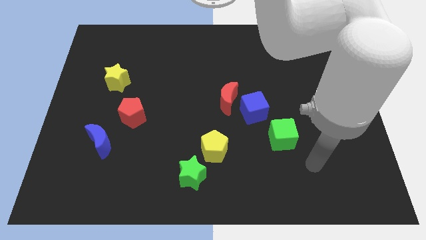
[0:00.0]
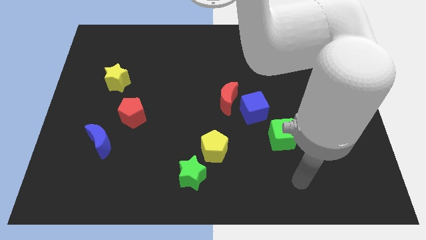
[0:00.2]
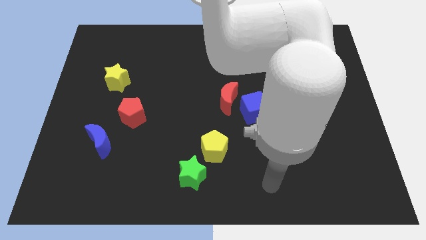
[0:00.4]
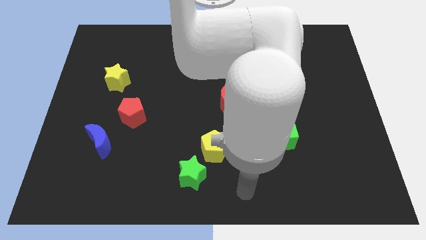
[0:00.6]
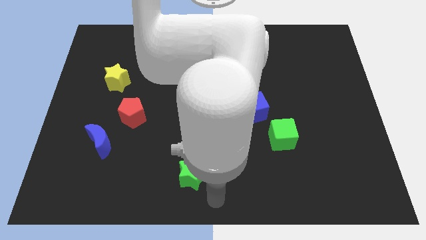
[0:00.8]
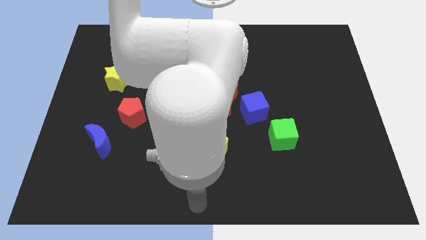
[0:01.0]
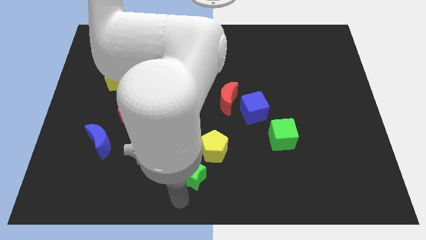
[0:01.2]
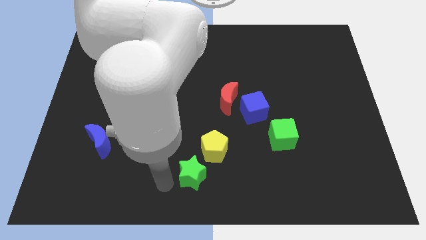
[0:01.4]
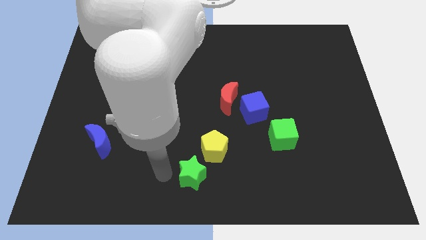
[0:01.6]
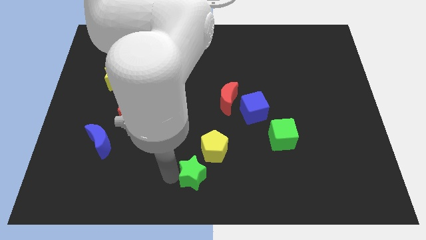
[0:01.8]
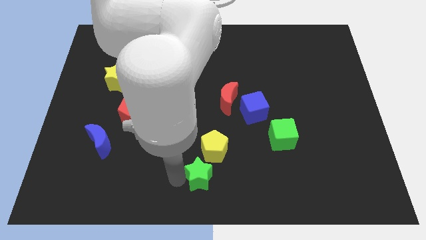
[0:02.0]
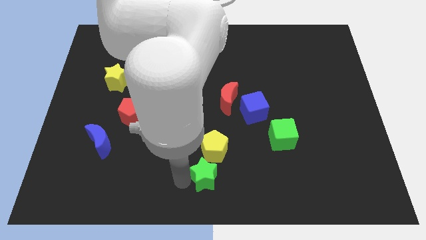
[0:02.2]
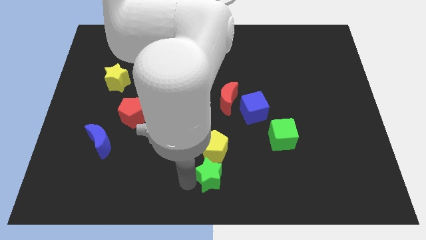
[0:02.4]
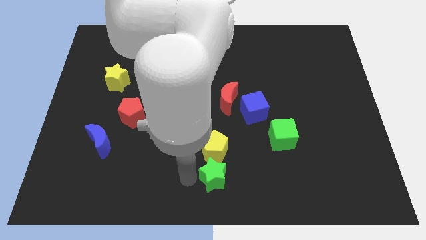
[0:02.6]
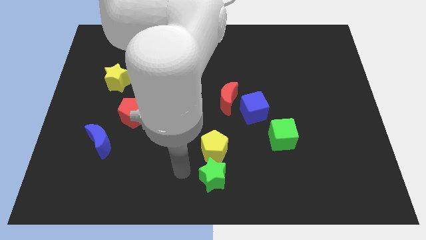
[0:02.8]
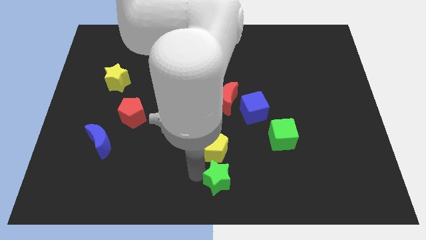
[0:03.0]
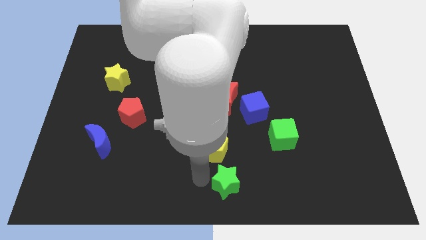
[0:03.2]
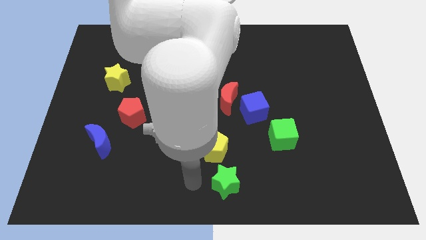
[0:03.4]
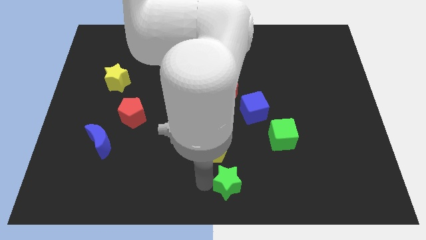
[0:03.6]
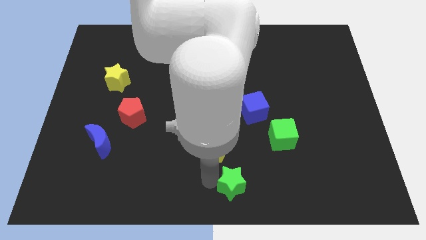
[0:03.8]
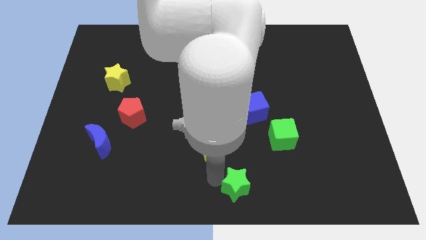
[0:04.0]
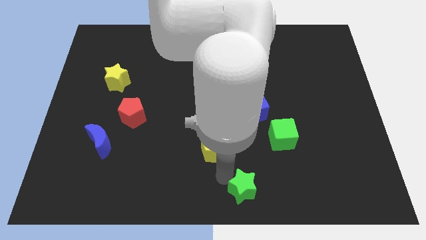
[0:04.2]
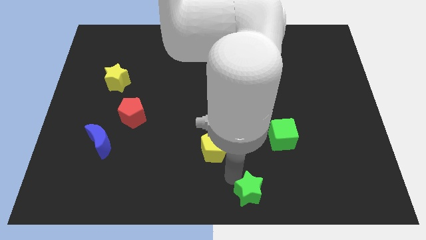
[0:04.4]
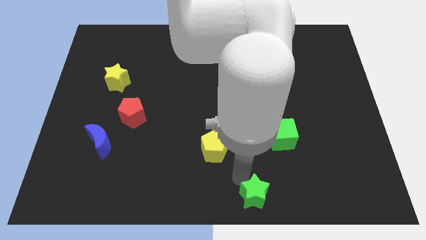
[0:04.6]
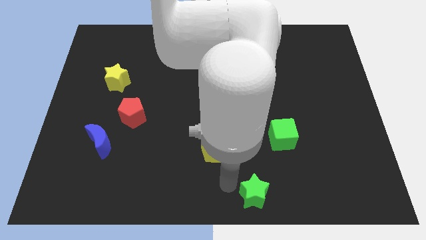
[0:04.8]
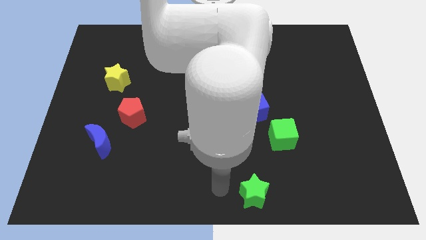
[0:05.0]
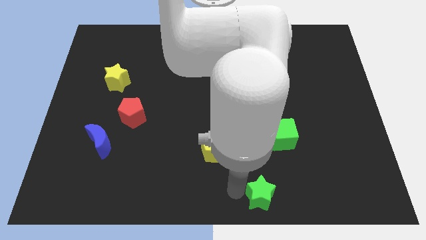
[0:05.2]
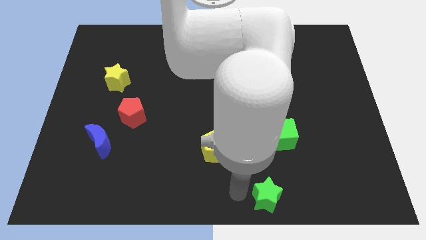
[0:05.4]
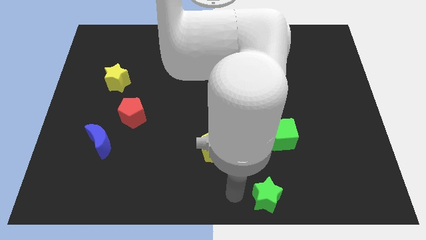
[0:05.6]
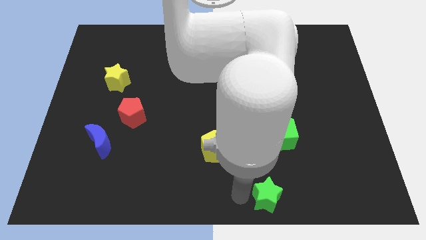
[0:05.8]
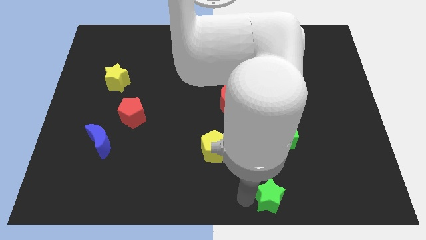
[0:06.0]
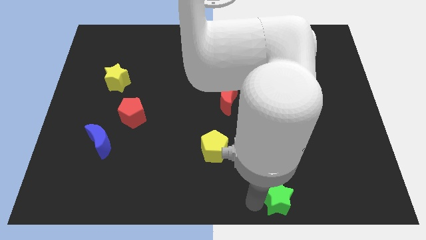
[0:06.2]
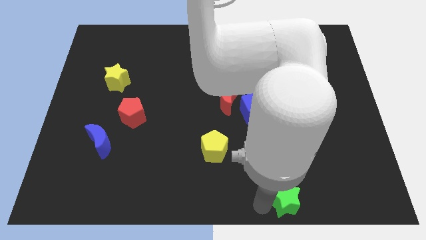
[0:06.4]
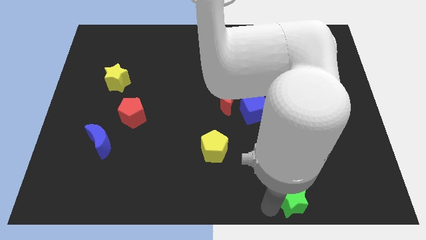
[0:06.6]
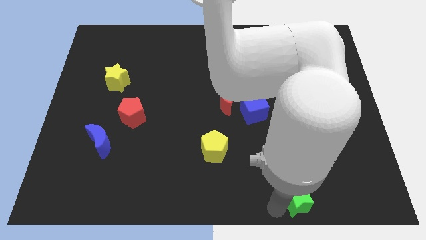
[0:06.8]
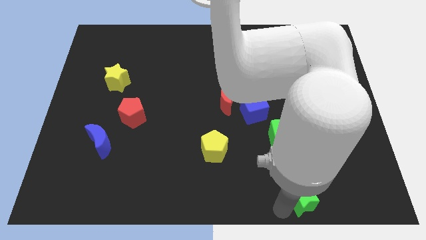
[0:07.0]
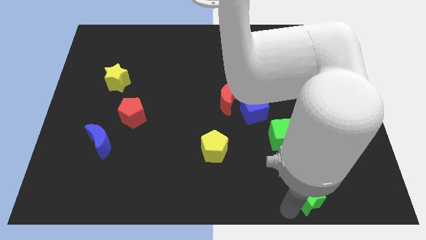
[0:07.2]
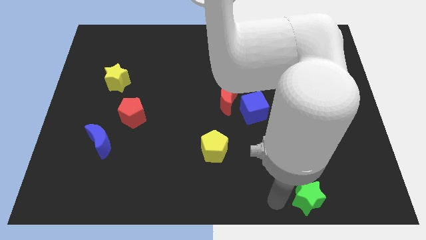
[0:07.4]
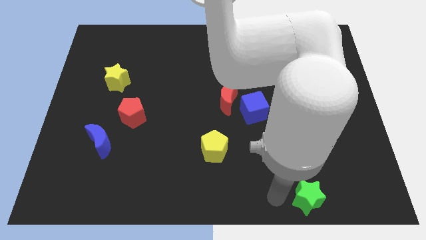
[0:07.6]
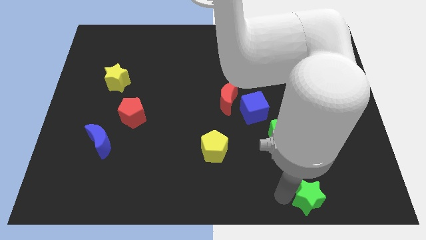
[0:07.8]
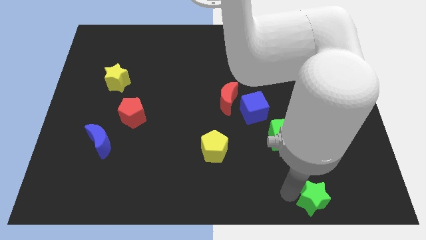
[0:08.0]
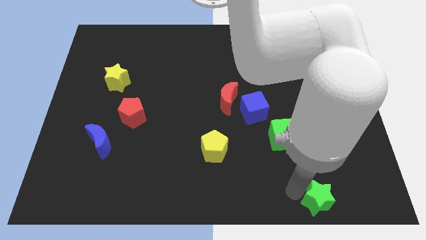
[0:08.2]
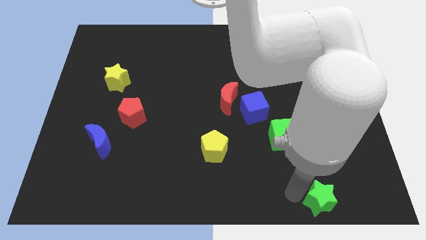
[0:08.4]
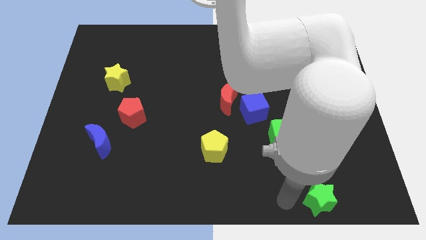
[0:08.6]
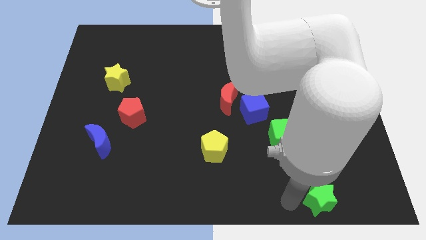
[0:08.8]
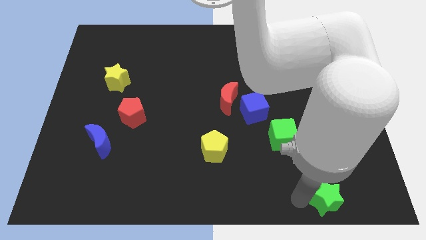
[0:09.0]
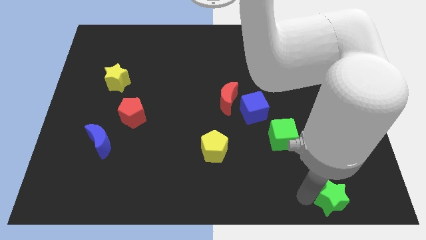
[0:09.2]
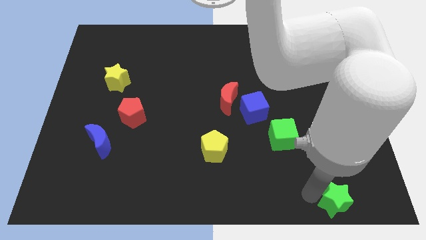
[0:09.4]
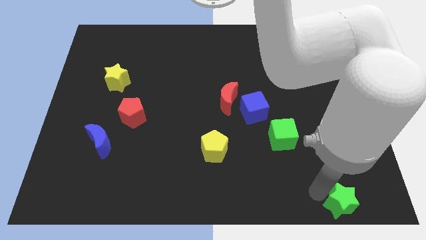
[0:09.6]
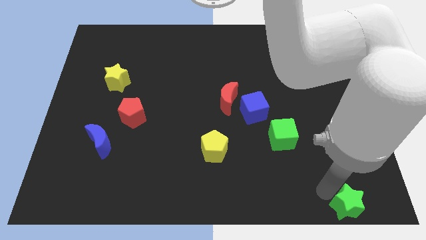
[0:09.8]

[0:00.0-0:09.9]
slide the green star to the bottom right

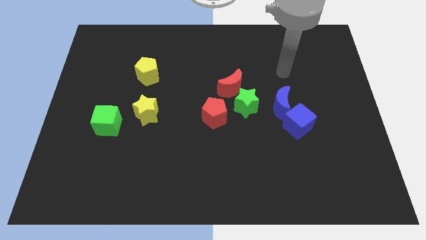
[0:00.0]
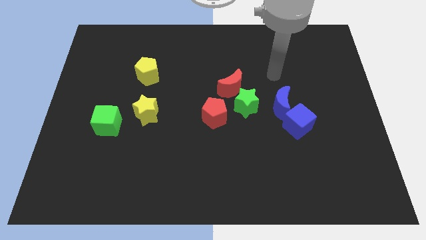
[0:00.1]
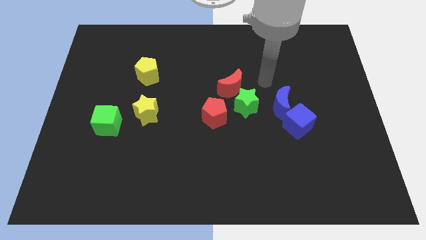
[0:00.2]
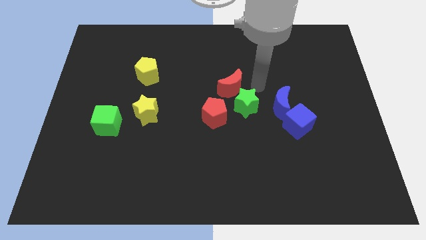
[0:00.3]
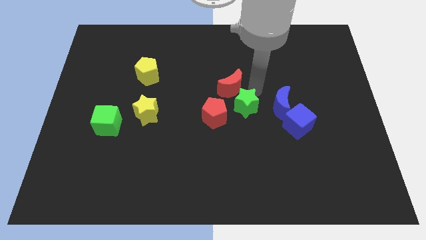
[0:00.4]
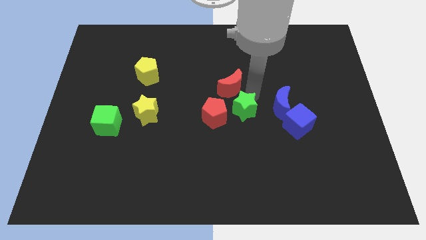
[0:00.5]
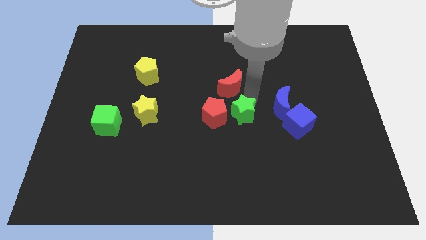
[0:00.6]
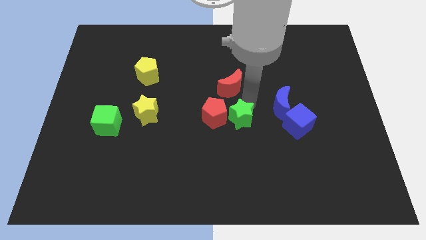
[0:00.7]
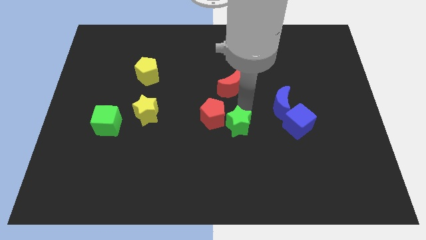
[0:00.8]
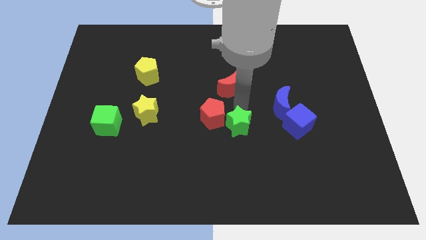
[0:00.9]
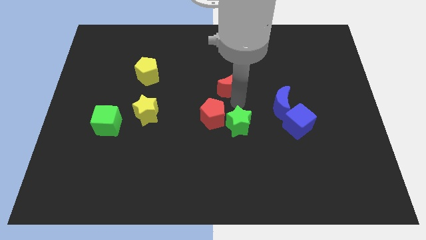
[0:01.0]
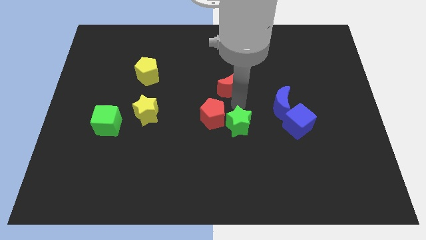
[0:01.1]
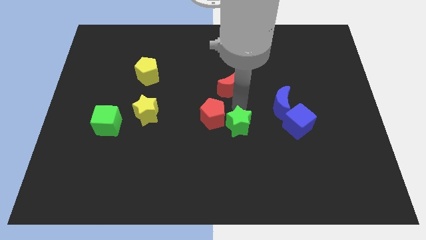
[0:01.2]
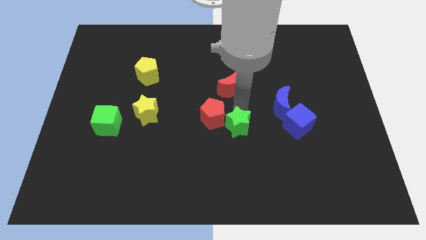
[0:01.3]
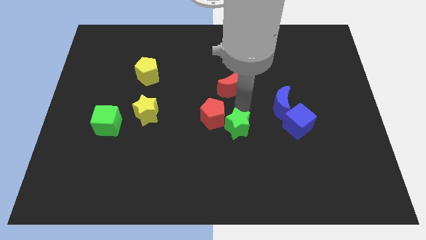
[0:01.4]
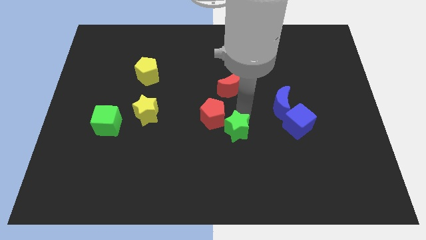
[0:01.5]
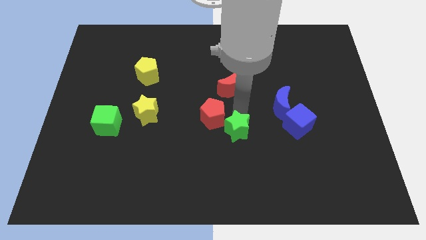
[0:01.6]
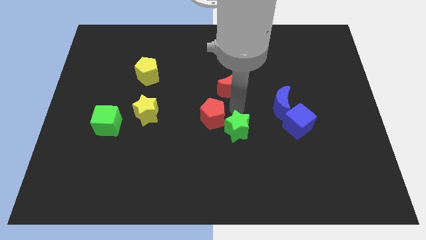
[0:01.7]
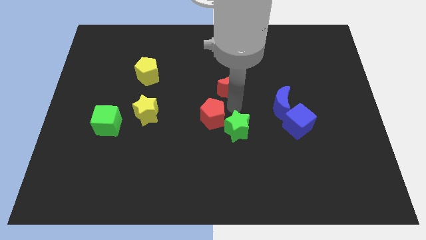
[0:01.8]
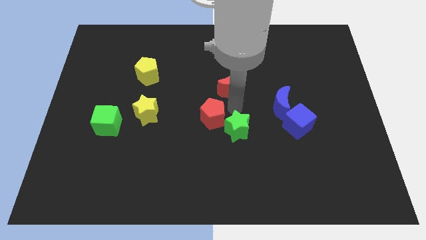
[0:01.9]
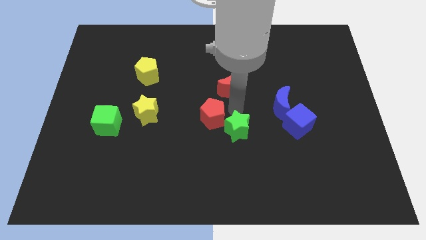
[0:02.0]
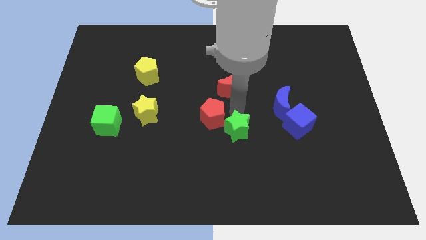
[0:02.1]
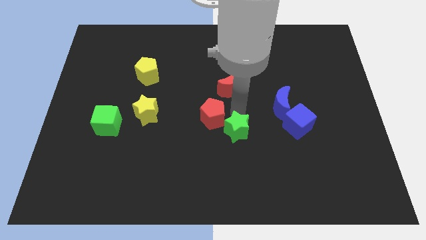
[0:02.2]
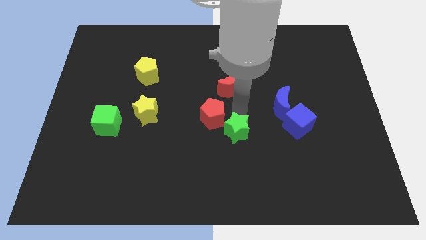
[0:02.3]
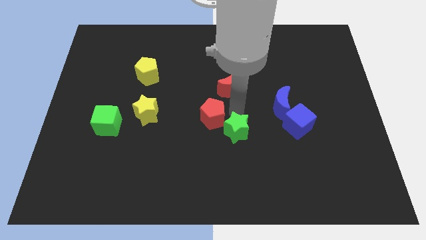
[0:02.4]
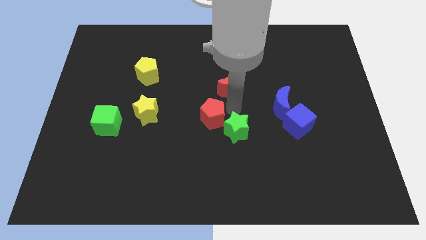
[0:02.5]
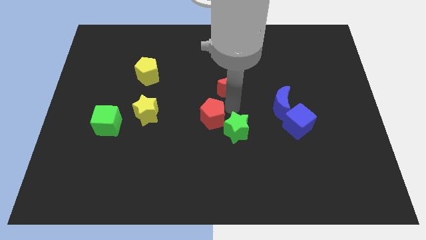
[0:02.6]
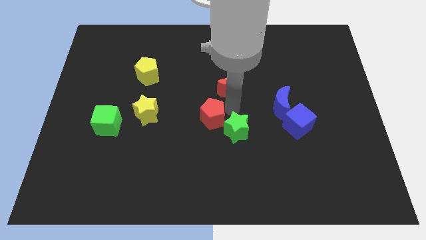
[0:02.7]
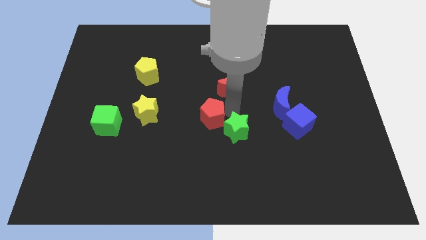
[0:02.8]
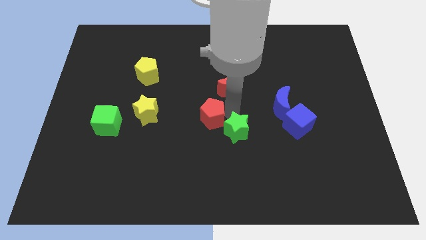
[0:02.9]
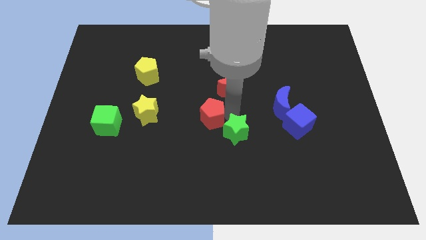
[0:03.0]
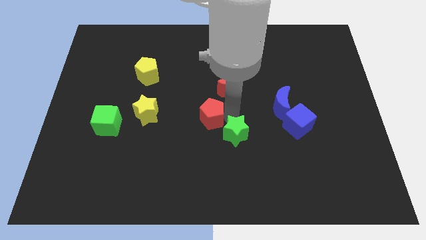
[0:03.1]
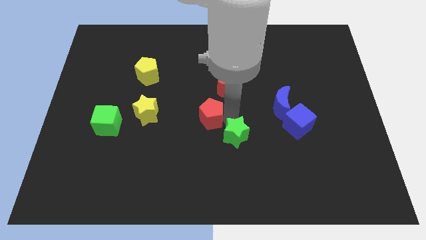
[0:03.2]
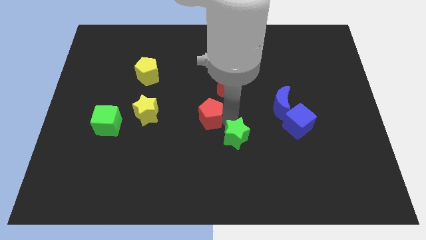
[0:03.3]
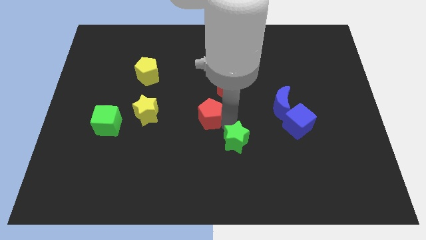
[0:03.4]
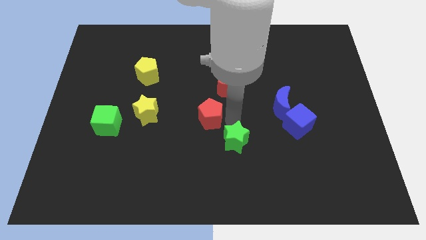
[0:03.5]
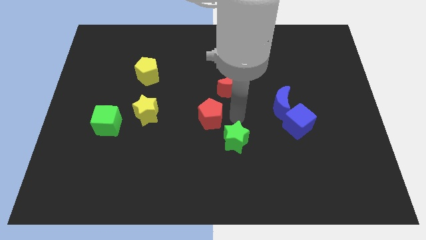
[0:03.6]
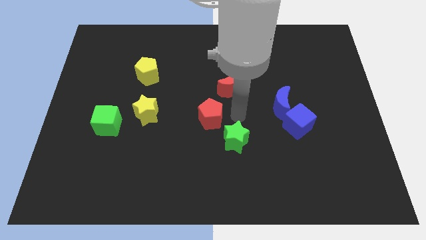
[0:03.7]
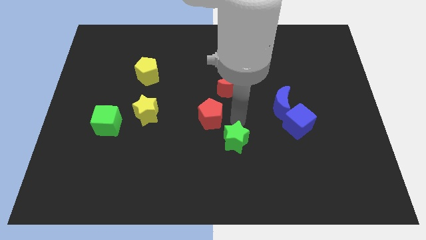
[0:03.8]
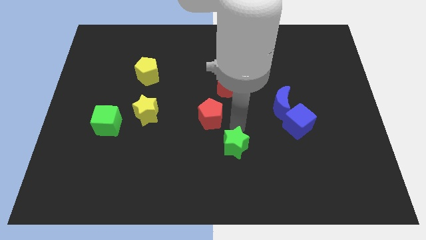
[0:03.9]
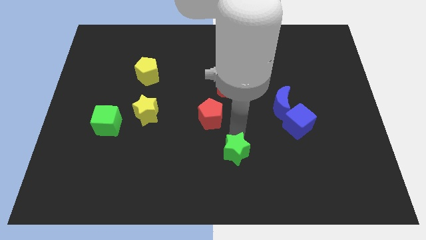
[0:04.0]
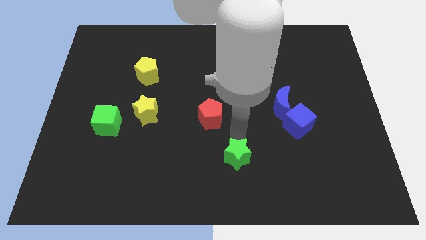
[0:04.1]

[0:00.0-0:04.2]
move the green star to the bottom
